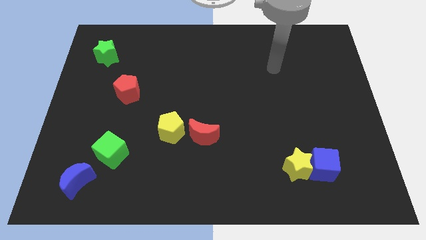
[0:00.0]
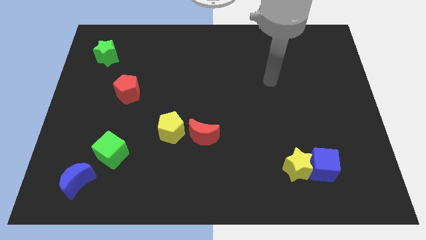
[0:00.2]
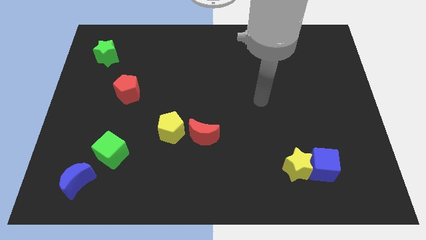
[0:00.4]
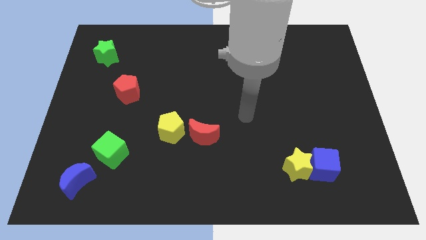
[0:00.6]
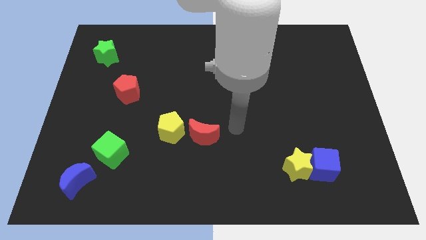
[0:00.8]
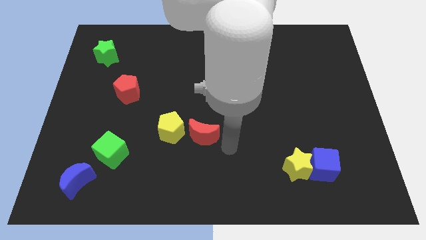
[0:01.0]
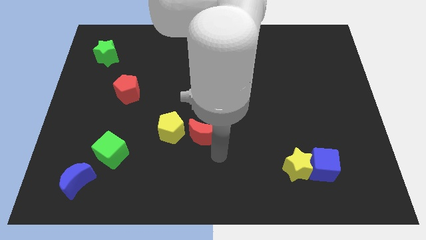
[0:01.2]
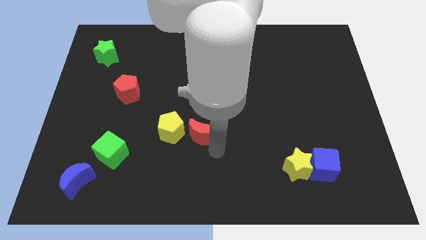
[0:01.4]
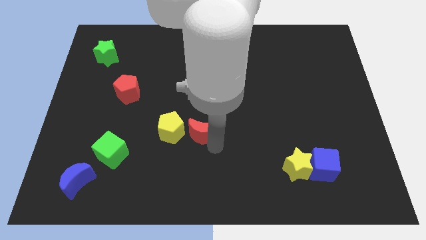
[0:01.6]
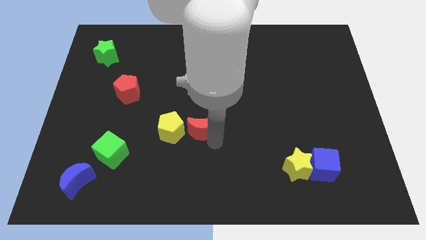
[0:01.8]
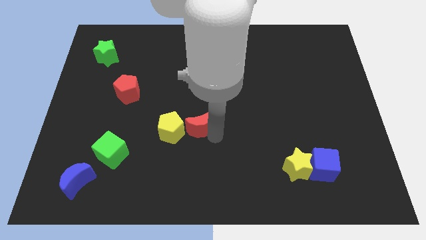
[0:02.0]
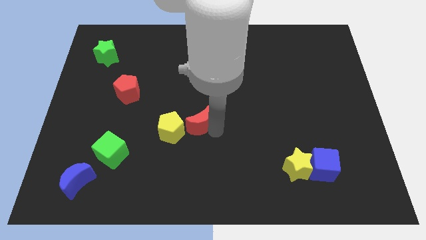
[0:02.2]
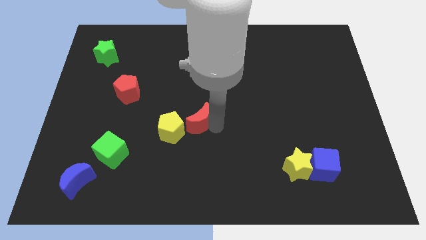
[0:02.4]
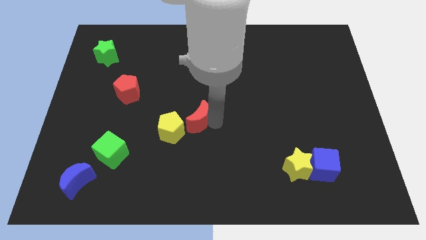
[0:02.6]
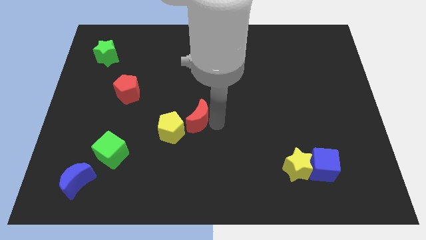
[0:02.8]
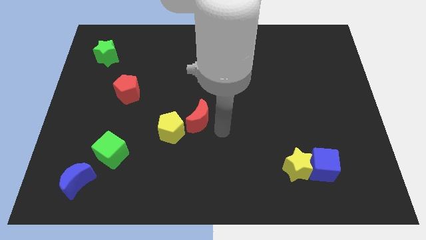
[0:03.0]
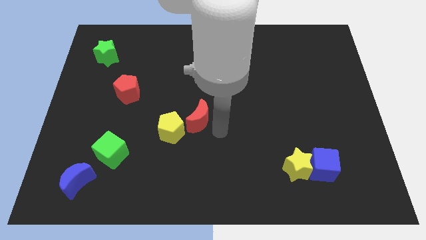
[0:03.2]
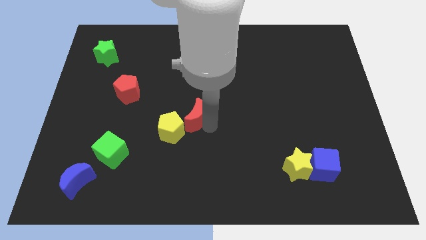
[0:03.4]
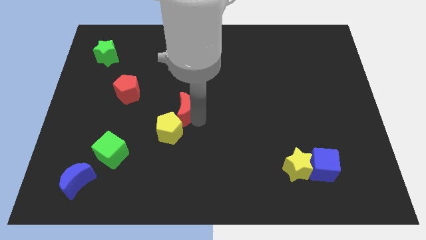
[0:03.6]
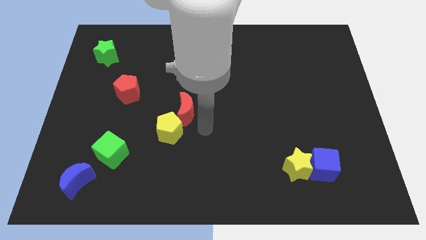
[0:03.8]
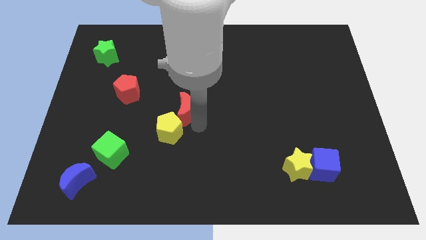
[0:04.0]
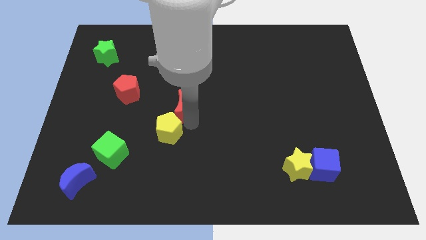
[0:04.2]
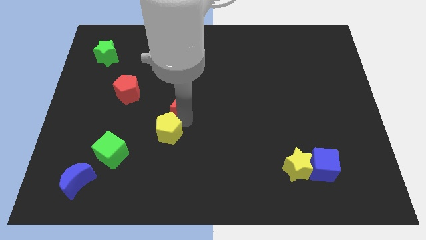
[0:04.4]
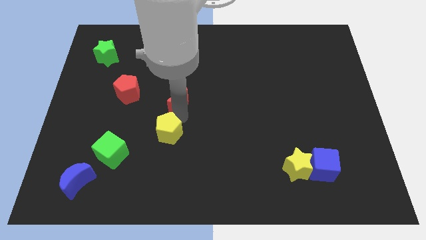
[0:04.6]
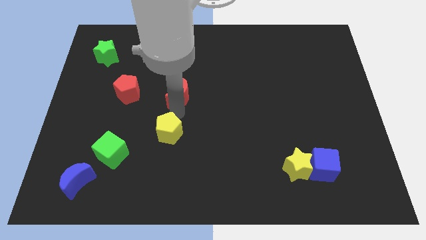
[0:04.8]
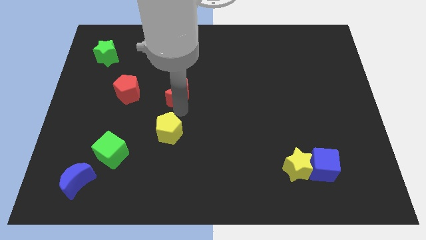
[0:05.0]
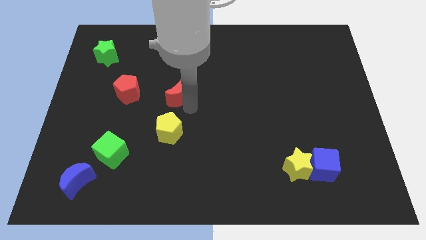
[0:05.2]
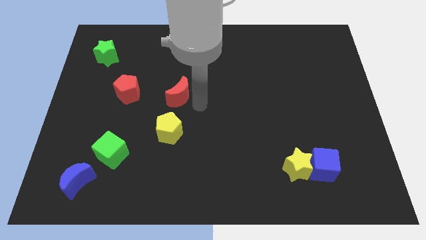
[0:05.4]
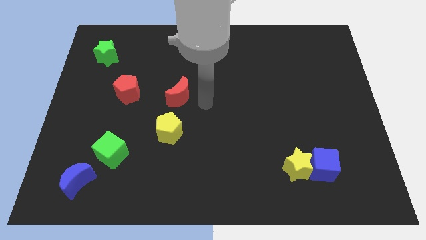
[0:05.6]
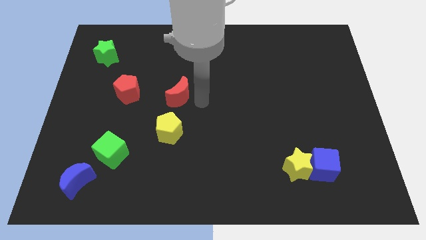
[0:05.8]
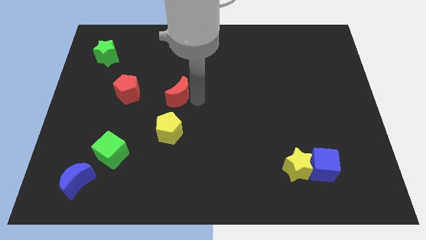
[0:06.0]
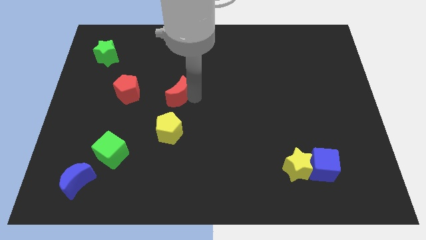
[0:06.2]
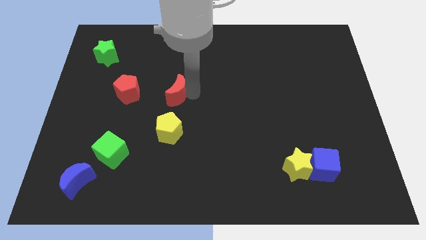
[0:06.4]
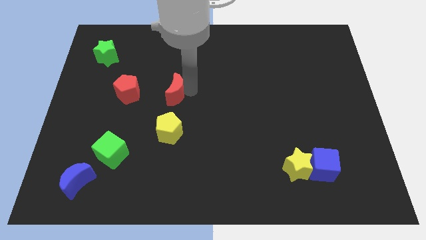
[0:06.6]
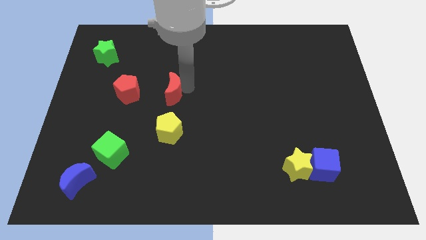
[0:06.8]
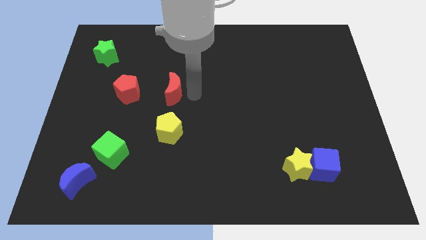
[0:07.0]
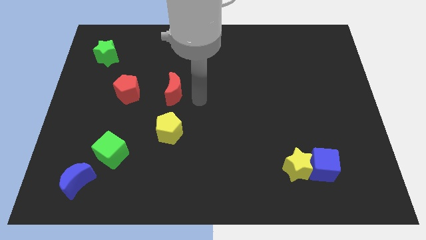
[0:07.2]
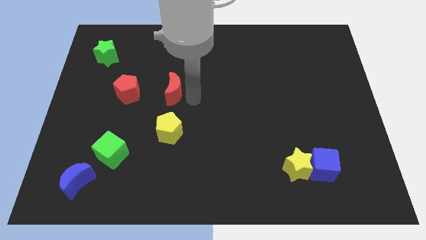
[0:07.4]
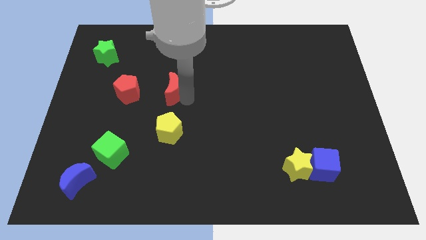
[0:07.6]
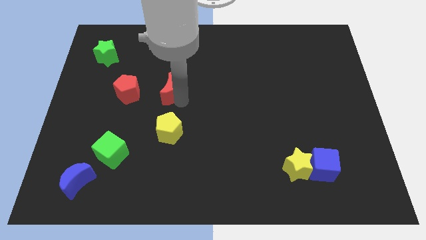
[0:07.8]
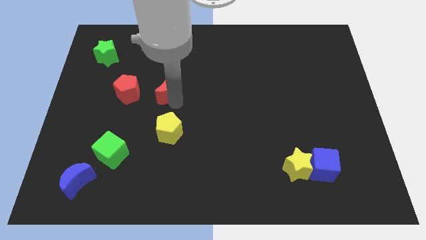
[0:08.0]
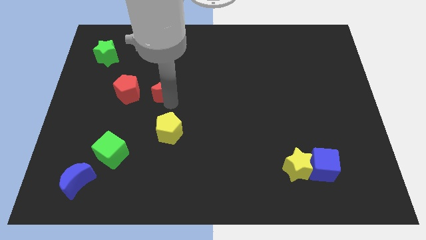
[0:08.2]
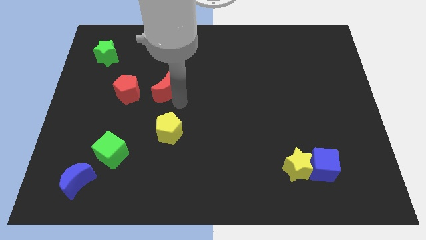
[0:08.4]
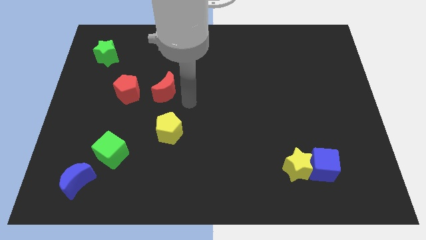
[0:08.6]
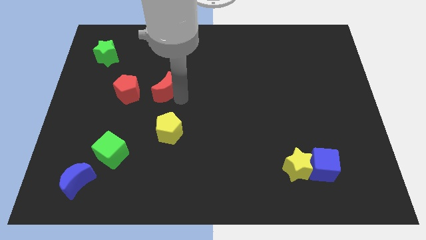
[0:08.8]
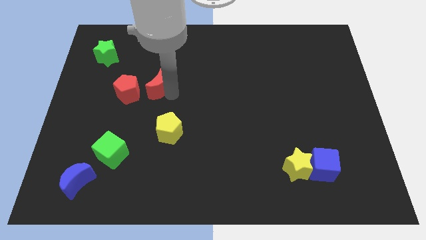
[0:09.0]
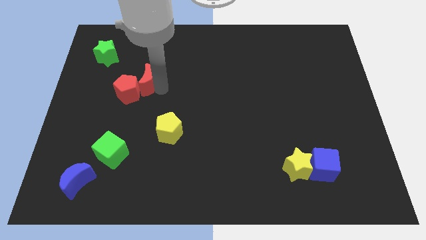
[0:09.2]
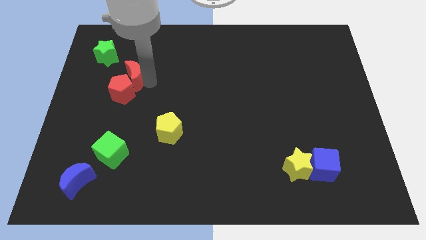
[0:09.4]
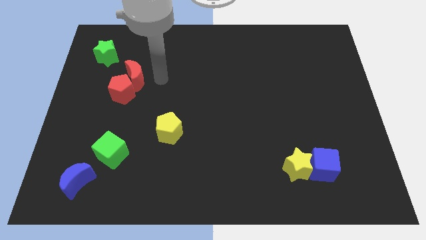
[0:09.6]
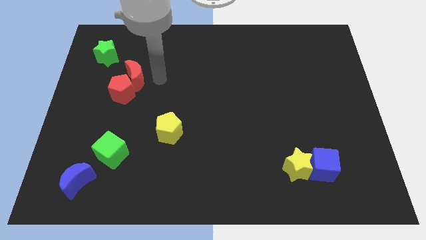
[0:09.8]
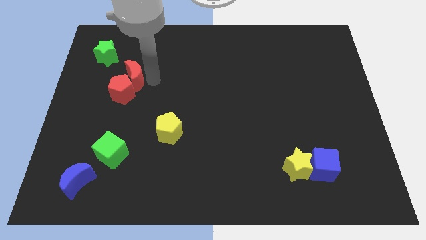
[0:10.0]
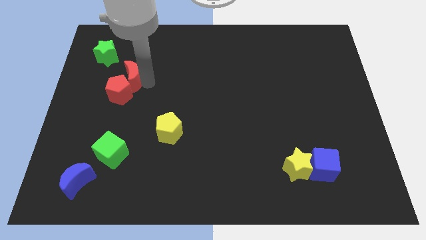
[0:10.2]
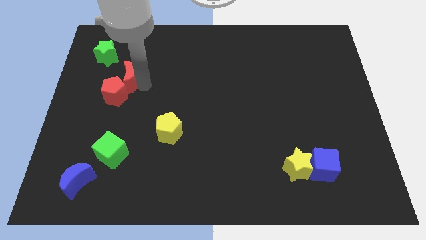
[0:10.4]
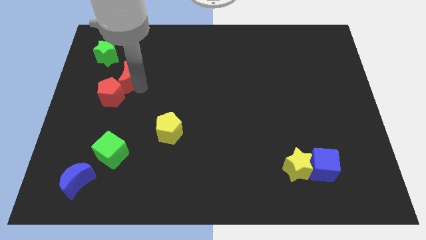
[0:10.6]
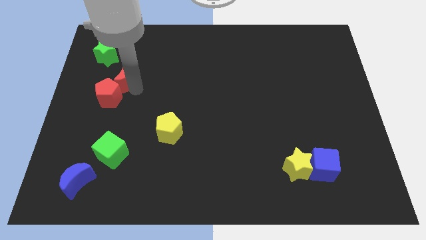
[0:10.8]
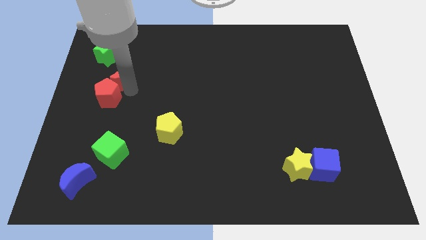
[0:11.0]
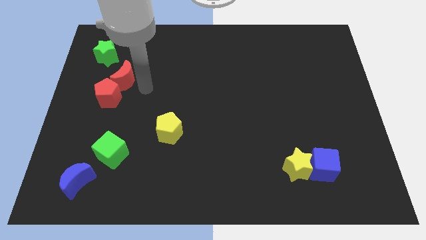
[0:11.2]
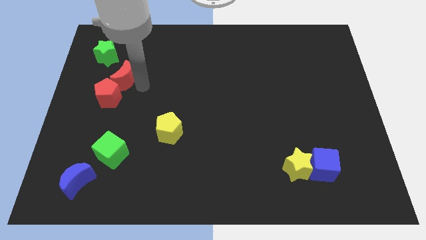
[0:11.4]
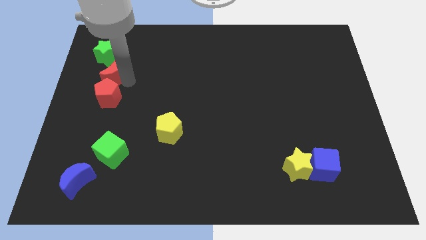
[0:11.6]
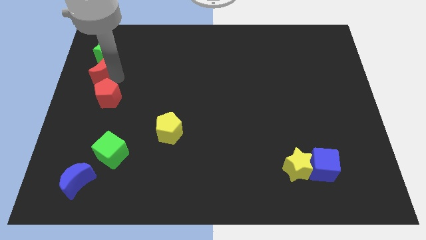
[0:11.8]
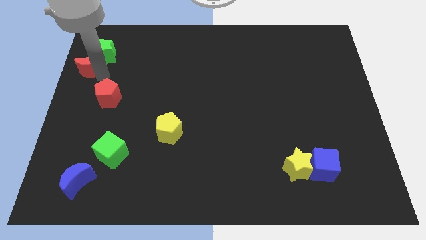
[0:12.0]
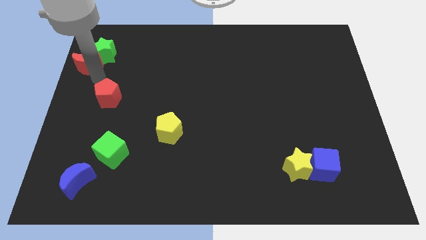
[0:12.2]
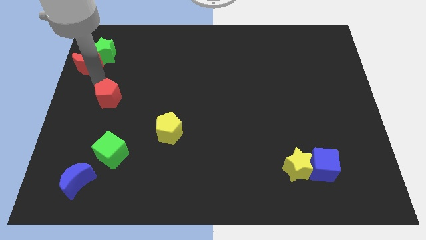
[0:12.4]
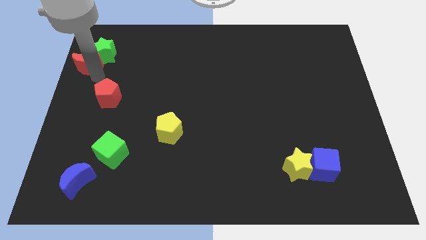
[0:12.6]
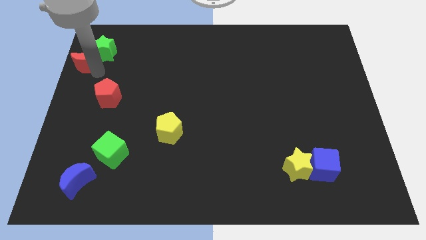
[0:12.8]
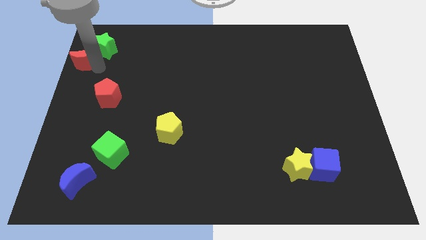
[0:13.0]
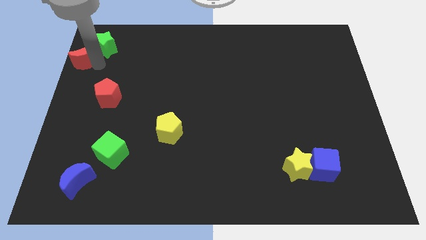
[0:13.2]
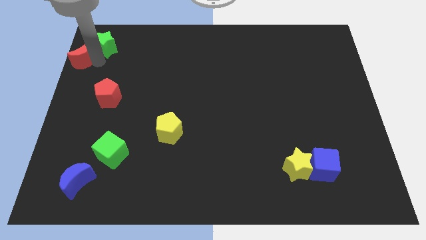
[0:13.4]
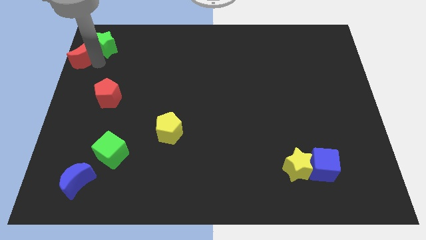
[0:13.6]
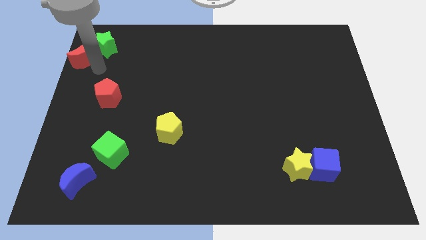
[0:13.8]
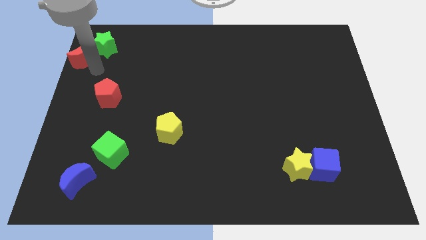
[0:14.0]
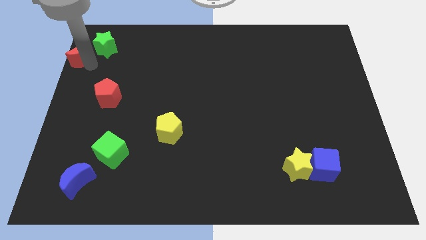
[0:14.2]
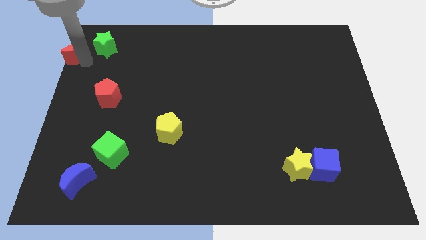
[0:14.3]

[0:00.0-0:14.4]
put the red moon to the top left of the board
